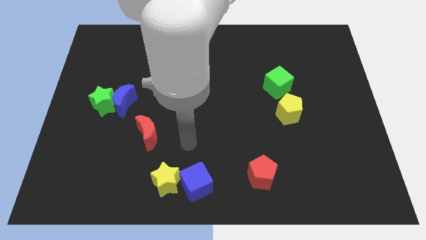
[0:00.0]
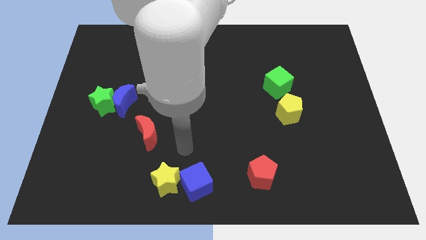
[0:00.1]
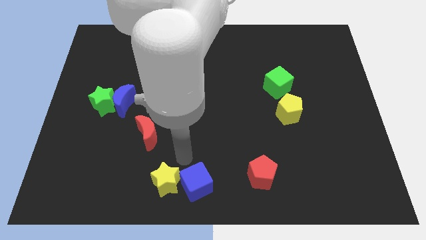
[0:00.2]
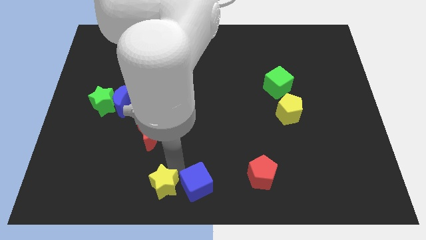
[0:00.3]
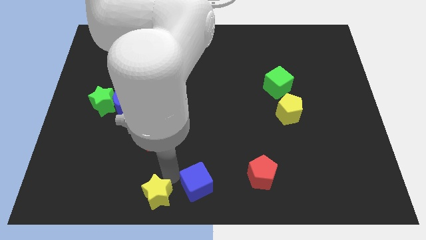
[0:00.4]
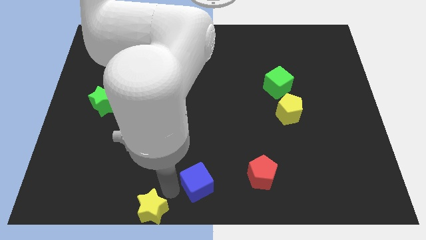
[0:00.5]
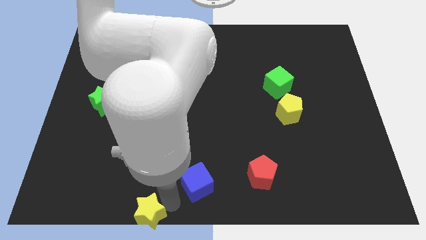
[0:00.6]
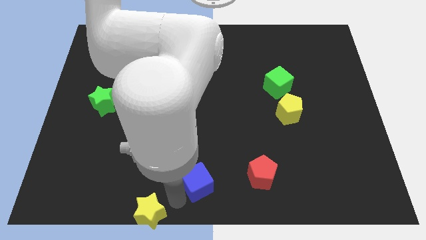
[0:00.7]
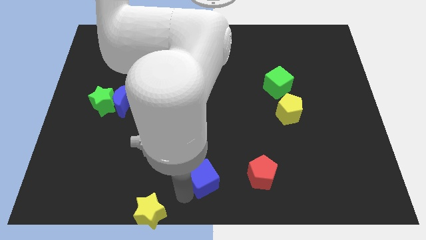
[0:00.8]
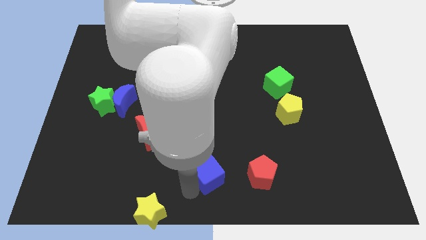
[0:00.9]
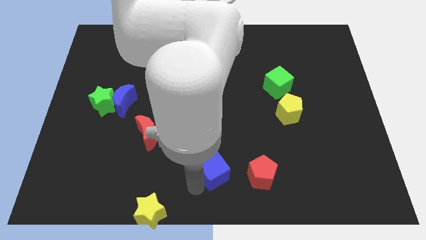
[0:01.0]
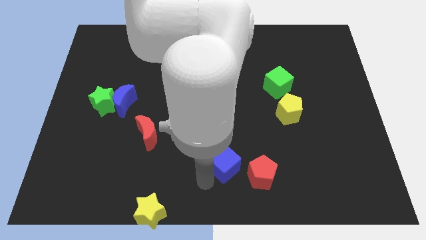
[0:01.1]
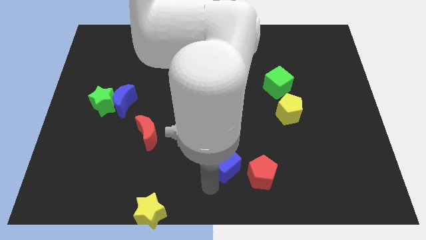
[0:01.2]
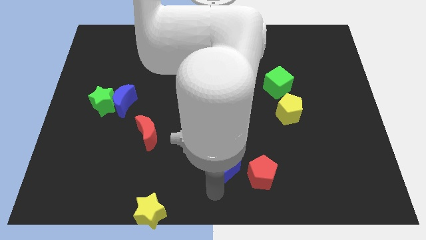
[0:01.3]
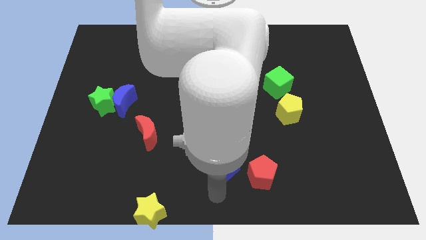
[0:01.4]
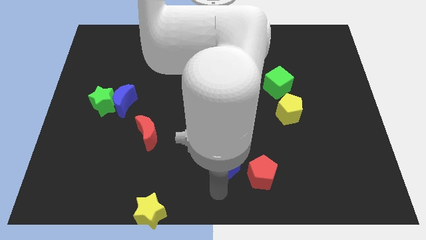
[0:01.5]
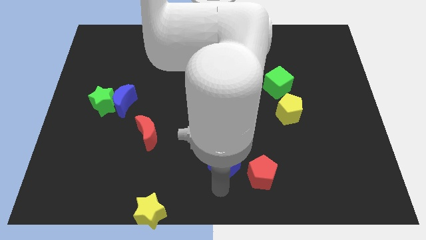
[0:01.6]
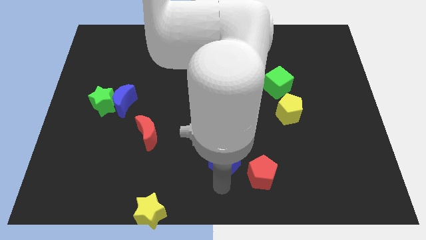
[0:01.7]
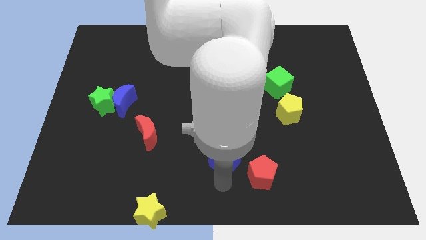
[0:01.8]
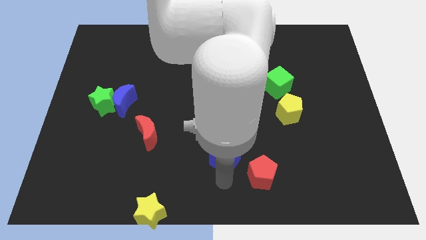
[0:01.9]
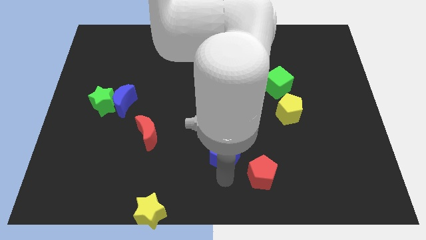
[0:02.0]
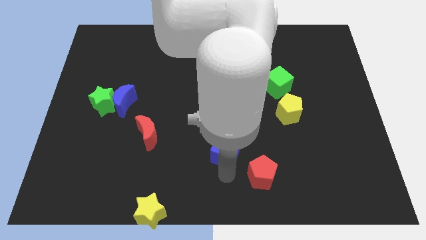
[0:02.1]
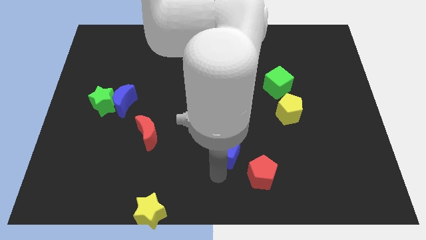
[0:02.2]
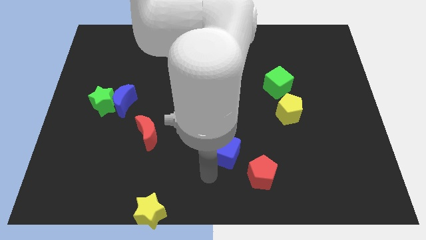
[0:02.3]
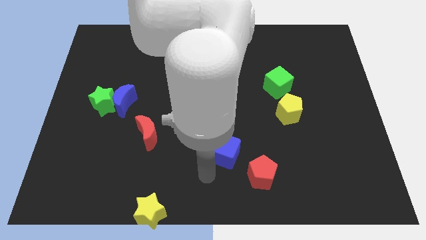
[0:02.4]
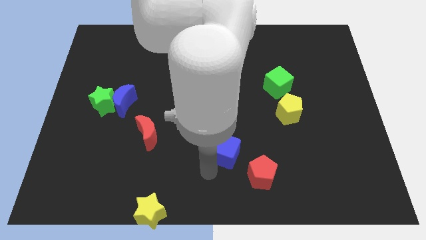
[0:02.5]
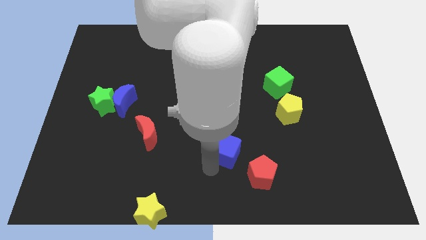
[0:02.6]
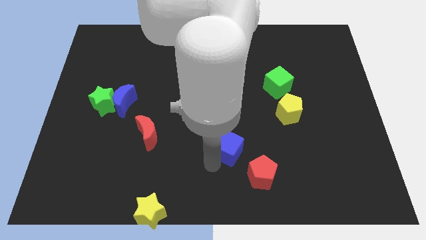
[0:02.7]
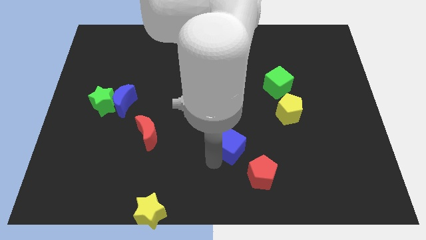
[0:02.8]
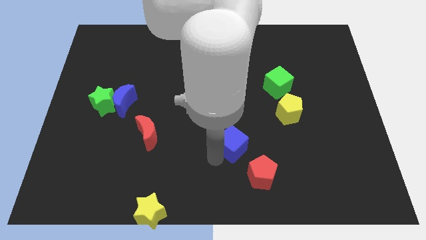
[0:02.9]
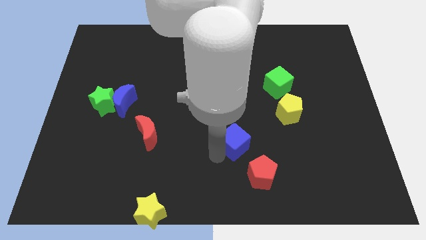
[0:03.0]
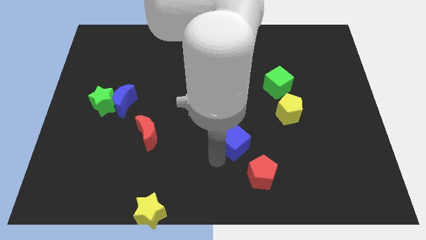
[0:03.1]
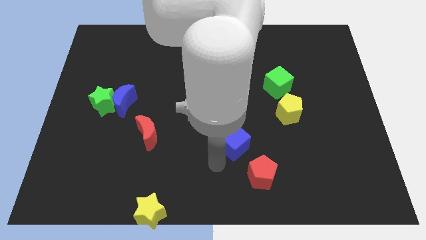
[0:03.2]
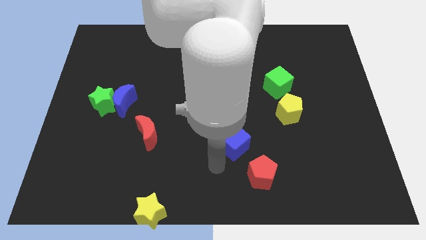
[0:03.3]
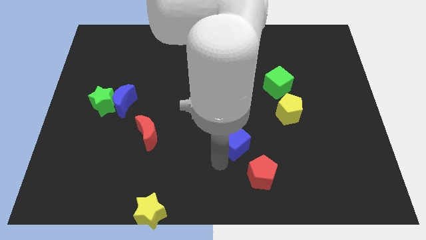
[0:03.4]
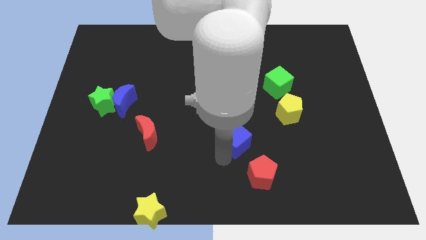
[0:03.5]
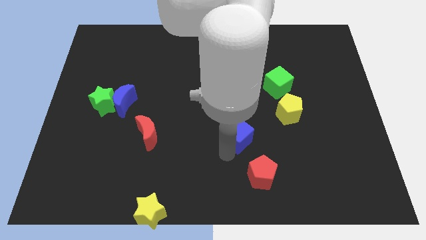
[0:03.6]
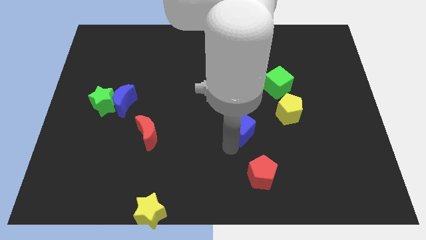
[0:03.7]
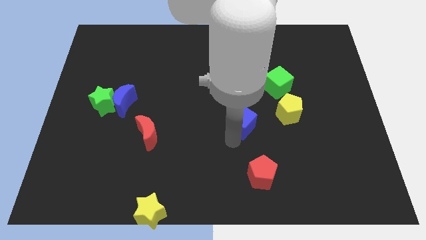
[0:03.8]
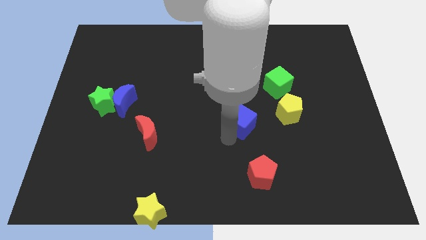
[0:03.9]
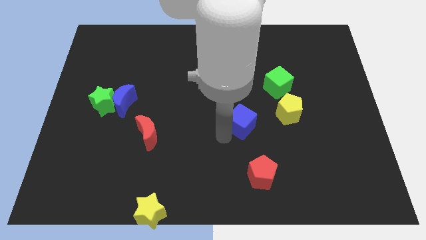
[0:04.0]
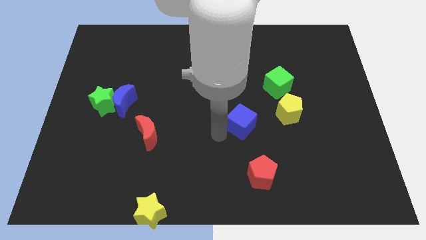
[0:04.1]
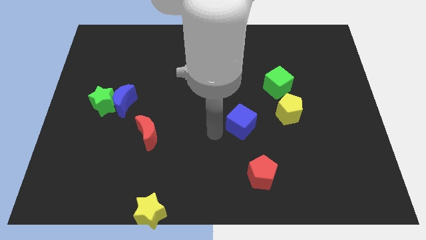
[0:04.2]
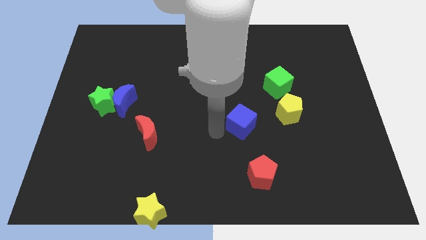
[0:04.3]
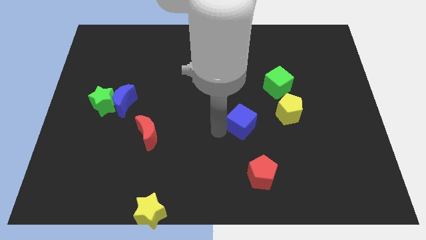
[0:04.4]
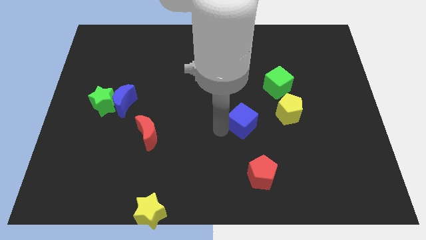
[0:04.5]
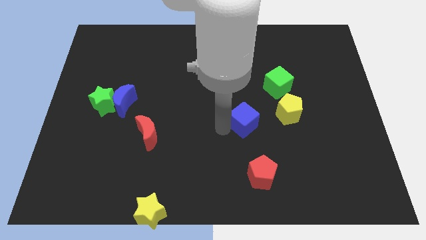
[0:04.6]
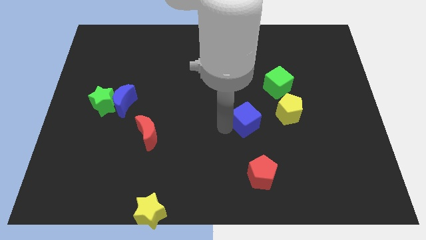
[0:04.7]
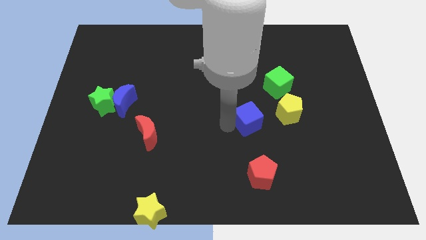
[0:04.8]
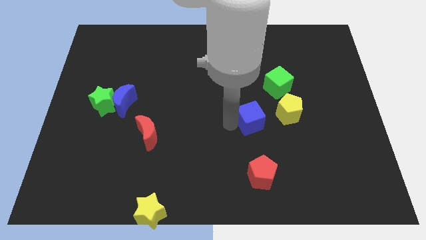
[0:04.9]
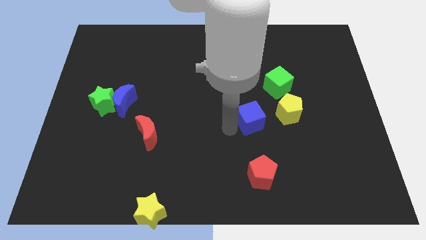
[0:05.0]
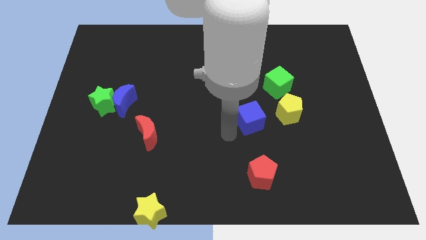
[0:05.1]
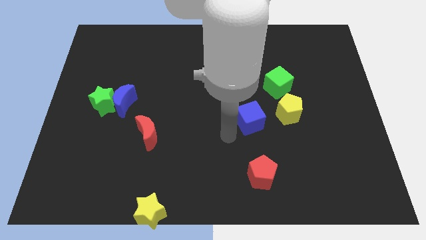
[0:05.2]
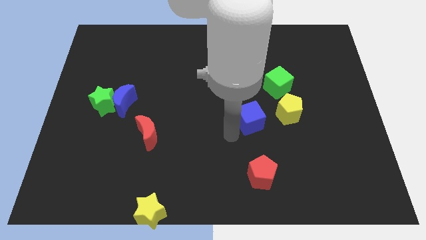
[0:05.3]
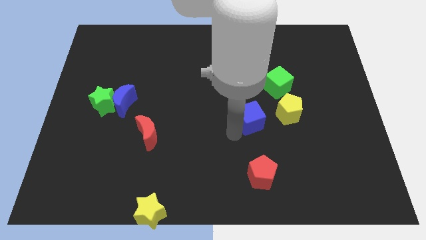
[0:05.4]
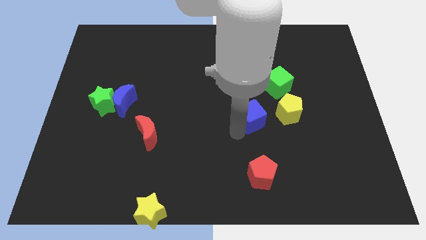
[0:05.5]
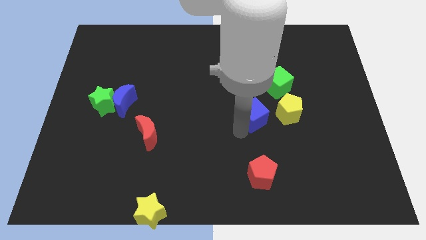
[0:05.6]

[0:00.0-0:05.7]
slide the blue cube up and right

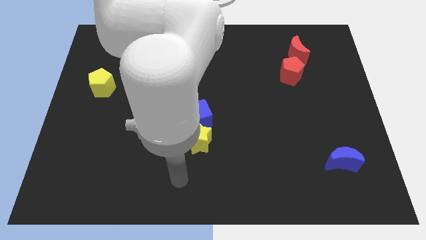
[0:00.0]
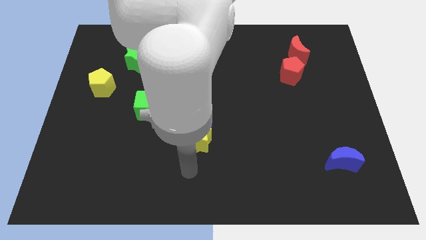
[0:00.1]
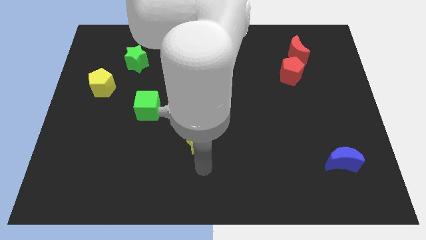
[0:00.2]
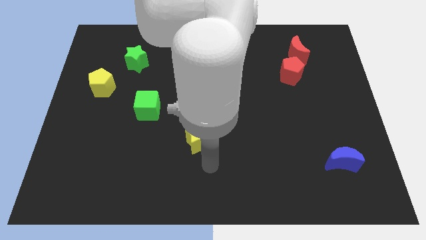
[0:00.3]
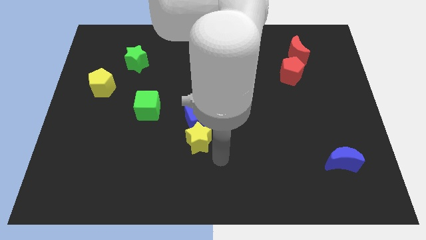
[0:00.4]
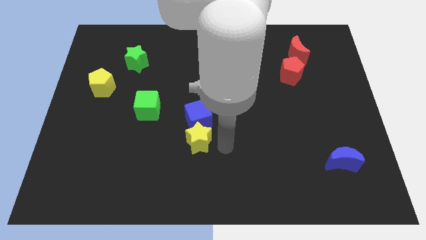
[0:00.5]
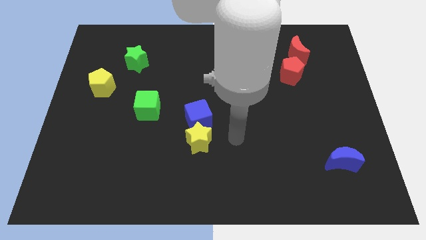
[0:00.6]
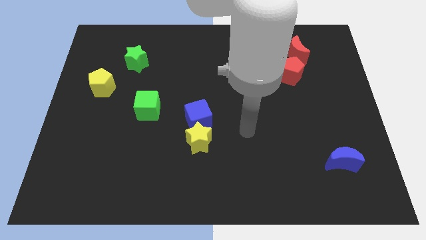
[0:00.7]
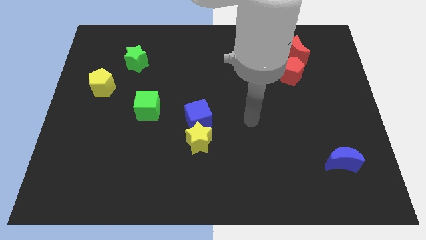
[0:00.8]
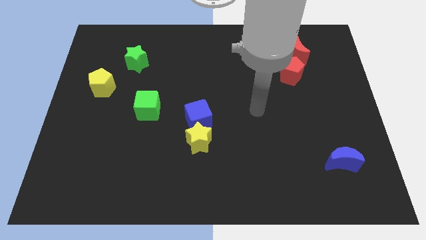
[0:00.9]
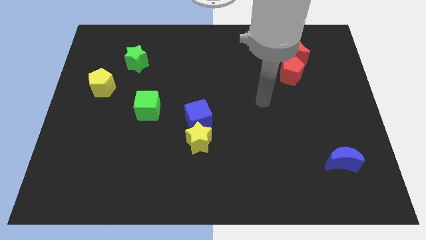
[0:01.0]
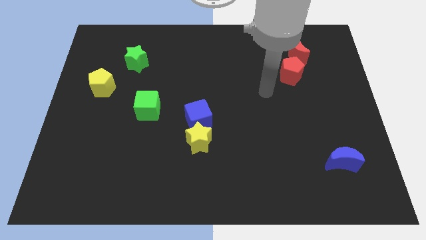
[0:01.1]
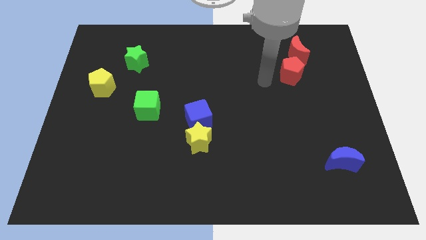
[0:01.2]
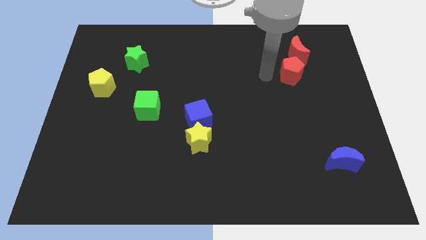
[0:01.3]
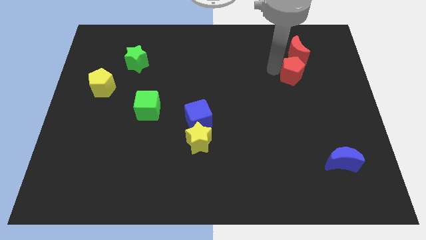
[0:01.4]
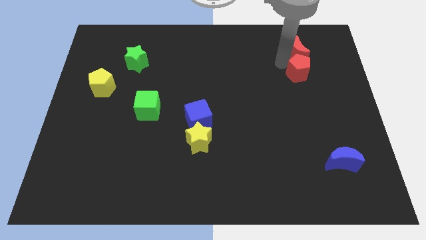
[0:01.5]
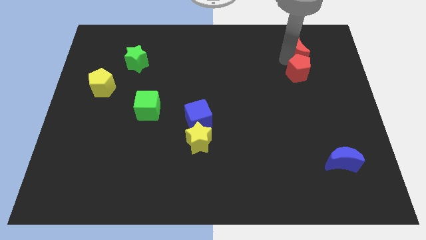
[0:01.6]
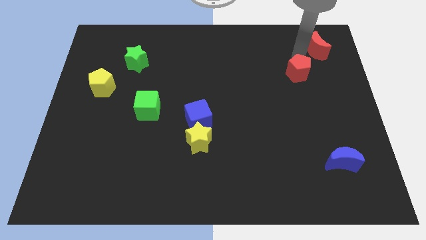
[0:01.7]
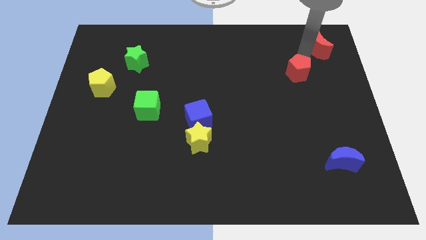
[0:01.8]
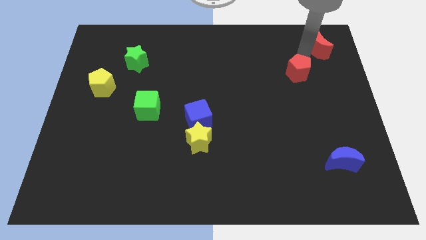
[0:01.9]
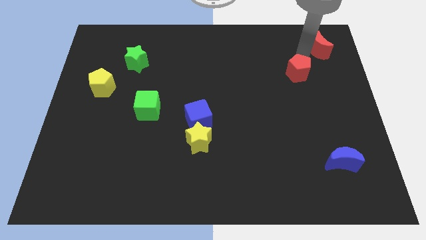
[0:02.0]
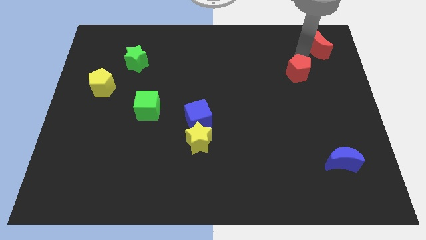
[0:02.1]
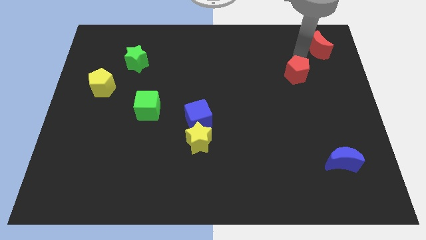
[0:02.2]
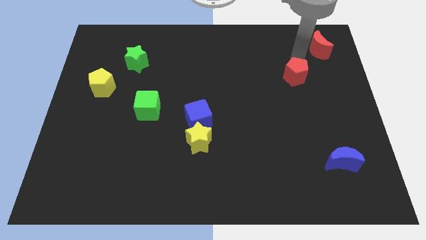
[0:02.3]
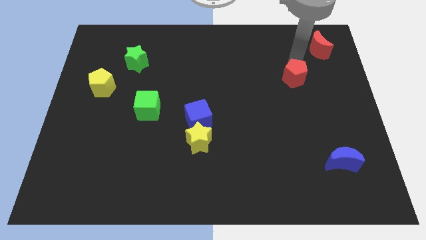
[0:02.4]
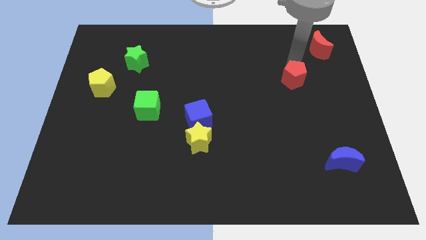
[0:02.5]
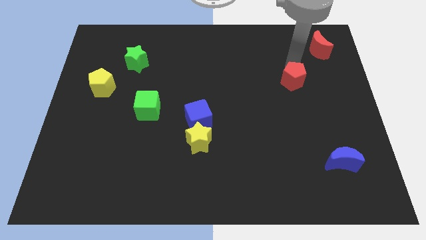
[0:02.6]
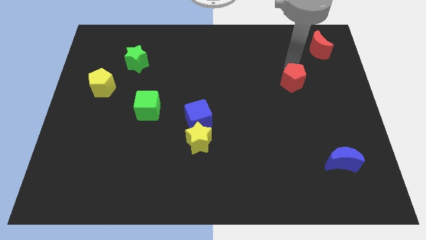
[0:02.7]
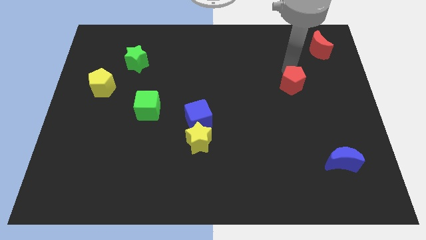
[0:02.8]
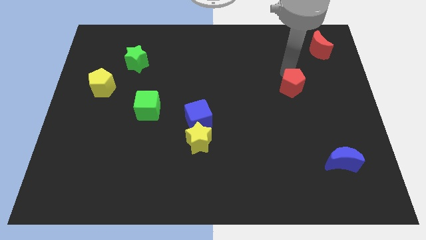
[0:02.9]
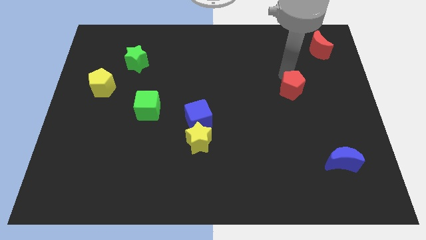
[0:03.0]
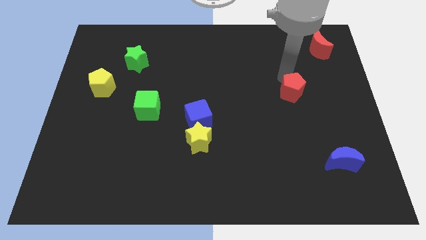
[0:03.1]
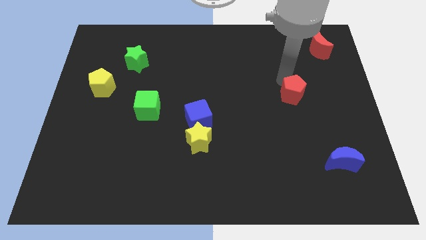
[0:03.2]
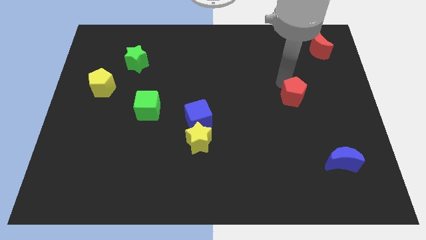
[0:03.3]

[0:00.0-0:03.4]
slightly move the red pentagon down
